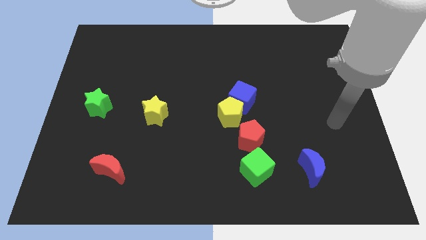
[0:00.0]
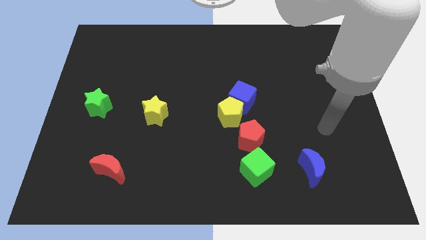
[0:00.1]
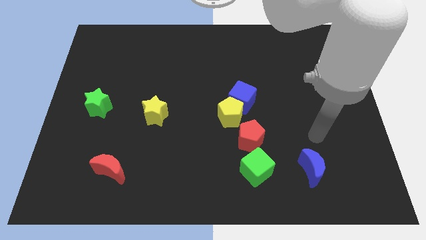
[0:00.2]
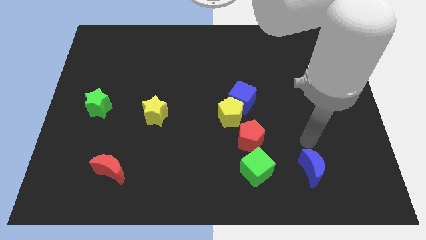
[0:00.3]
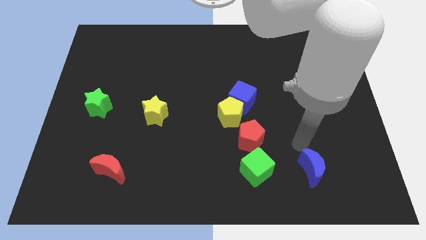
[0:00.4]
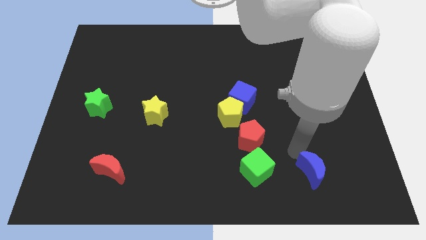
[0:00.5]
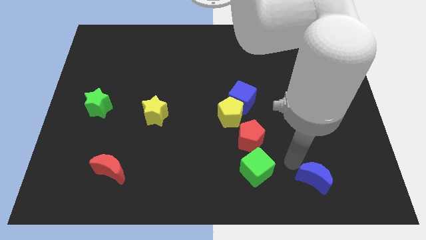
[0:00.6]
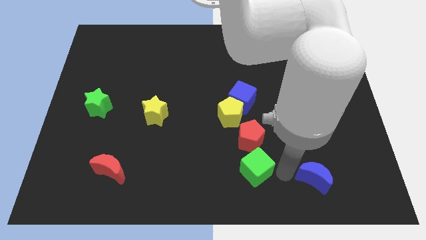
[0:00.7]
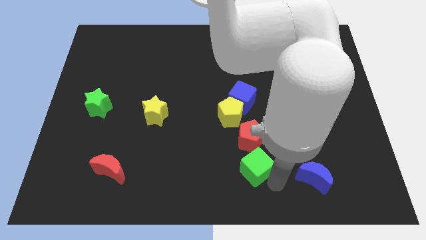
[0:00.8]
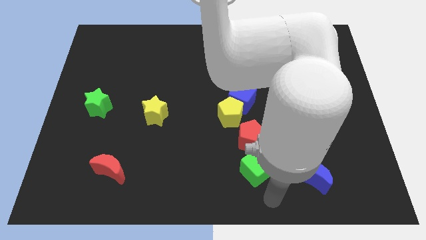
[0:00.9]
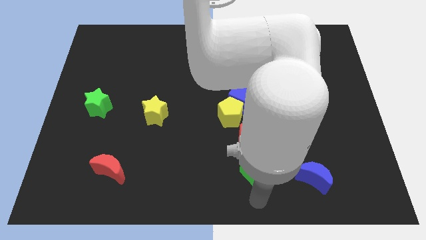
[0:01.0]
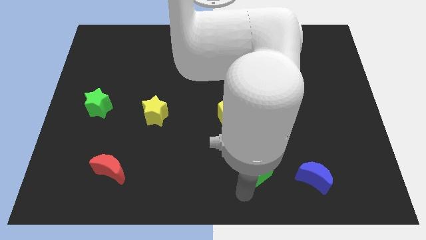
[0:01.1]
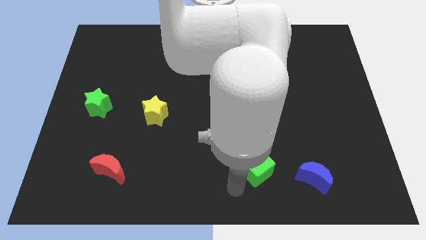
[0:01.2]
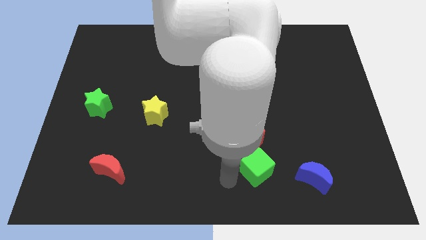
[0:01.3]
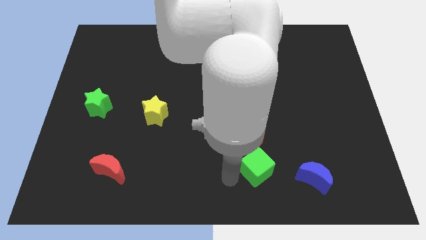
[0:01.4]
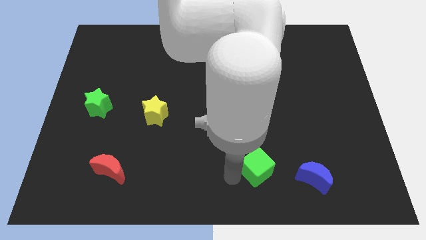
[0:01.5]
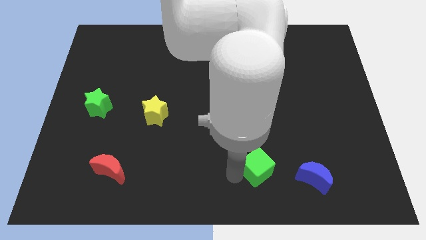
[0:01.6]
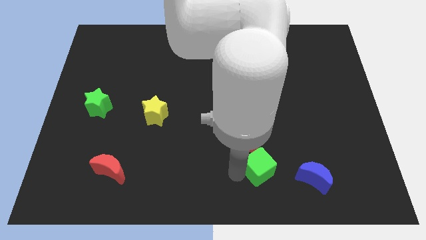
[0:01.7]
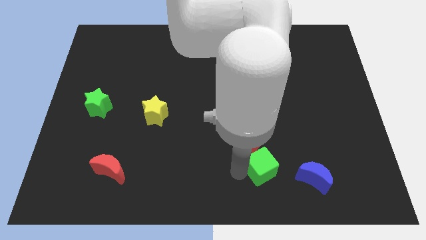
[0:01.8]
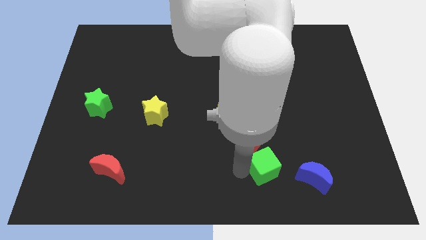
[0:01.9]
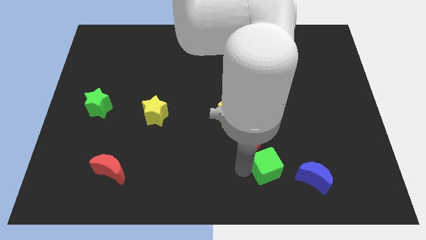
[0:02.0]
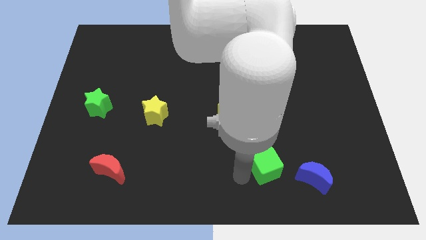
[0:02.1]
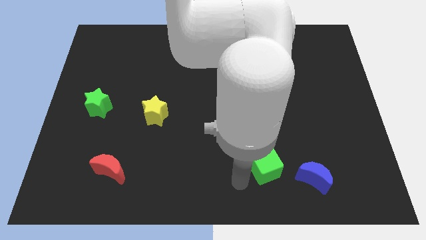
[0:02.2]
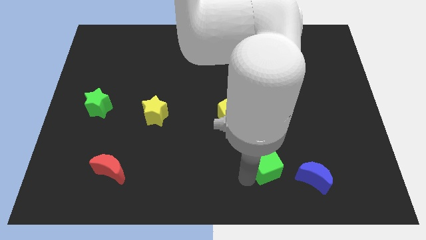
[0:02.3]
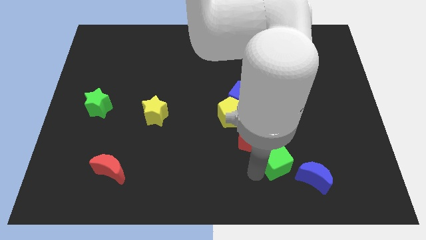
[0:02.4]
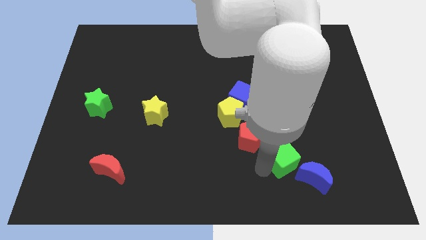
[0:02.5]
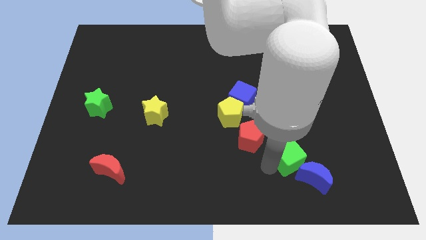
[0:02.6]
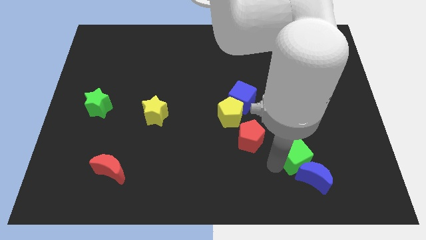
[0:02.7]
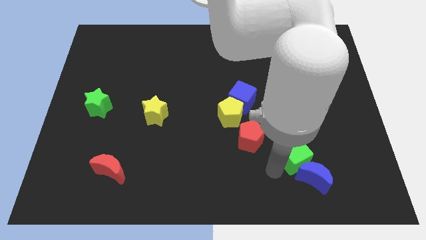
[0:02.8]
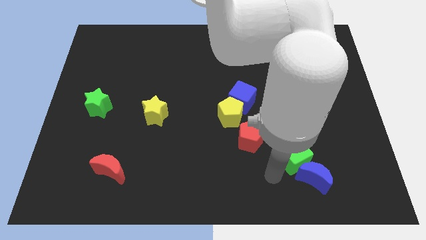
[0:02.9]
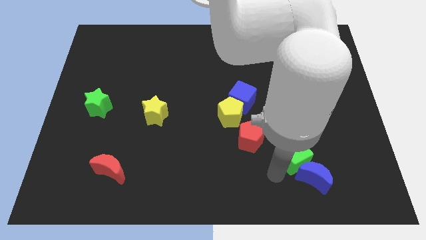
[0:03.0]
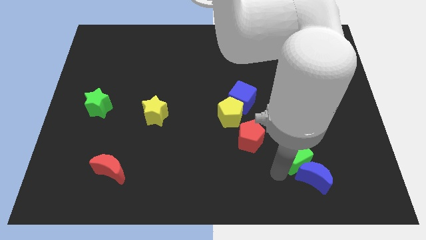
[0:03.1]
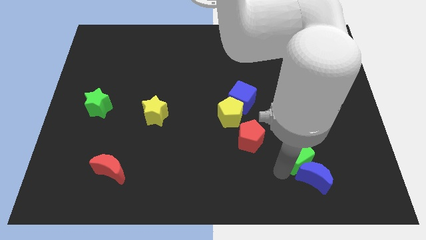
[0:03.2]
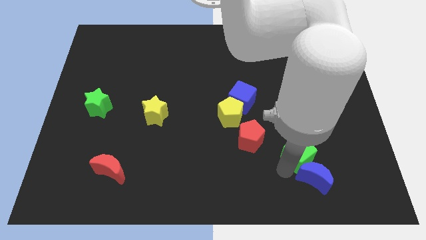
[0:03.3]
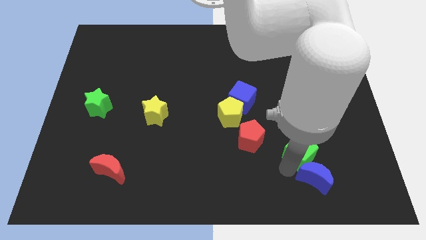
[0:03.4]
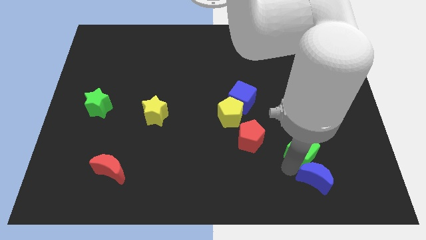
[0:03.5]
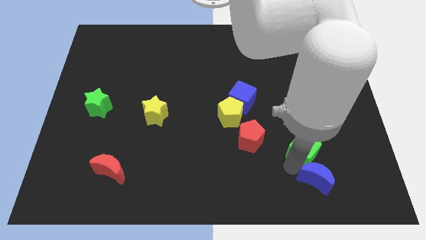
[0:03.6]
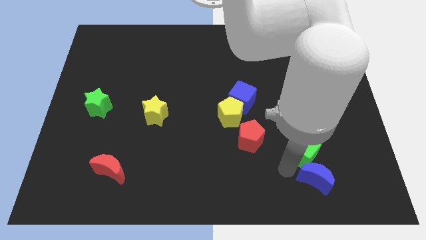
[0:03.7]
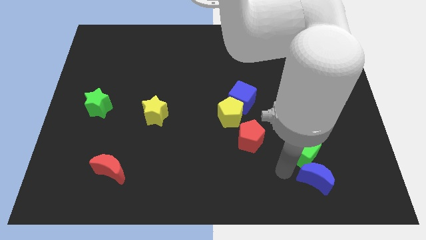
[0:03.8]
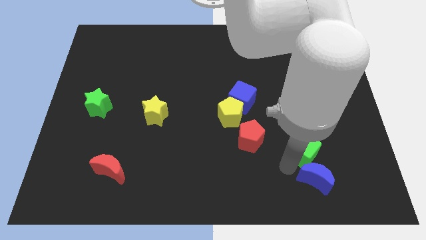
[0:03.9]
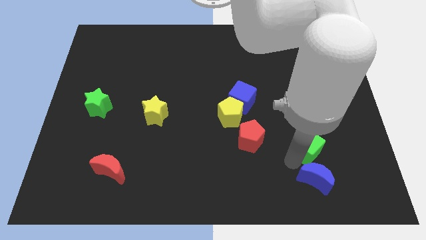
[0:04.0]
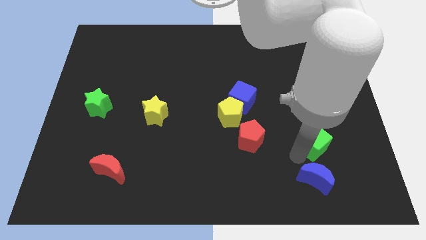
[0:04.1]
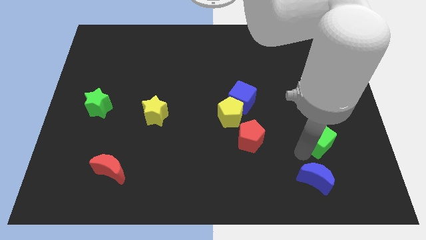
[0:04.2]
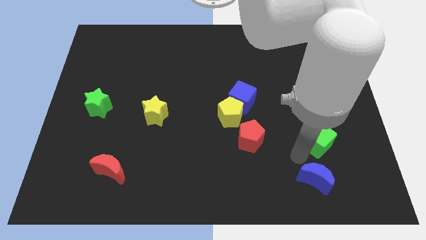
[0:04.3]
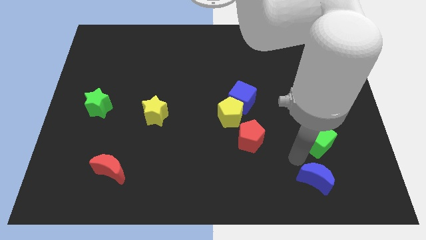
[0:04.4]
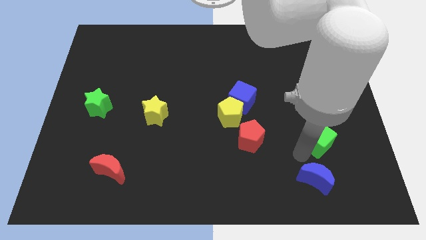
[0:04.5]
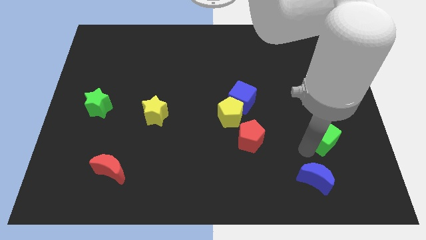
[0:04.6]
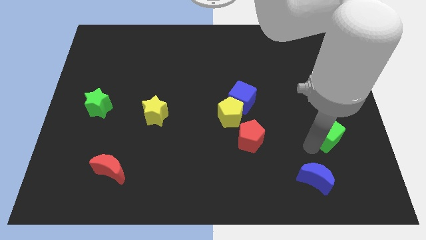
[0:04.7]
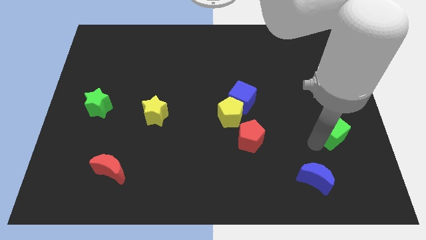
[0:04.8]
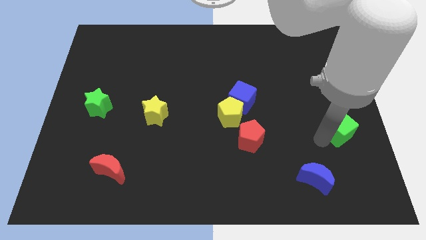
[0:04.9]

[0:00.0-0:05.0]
slide the green cube to the right side

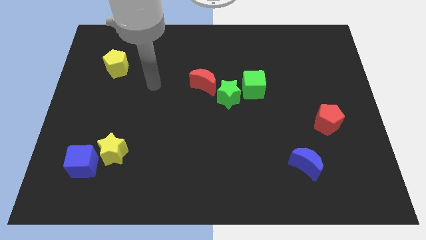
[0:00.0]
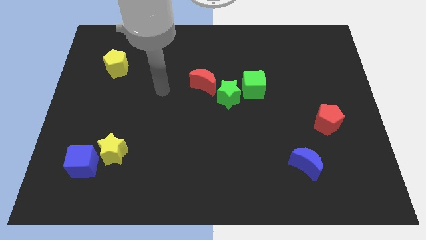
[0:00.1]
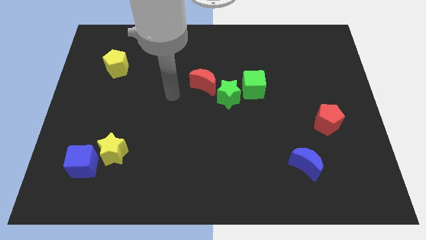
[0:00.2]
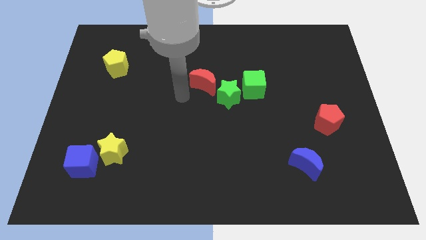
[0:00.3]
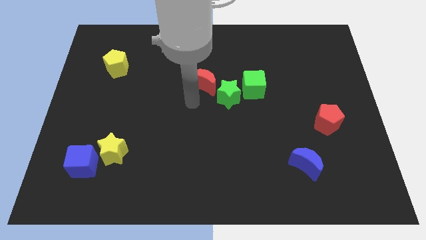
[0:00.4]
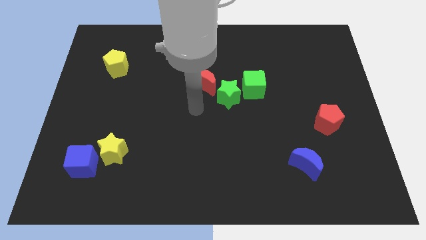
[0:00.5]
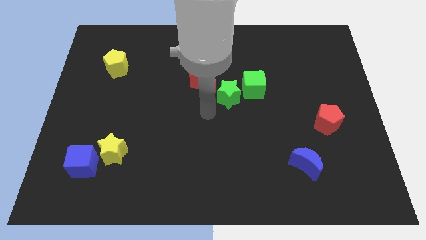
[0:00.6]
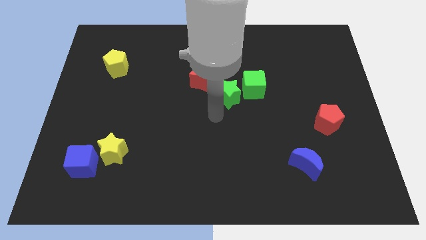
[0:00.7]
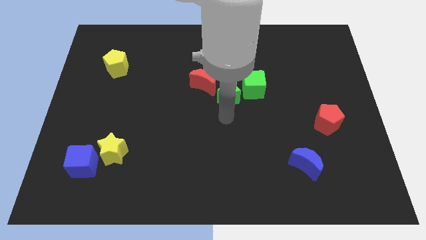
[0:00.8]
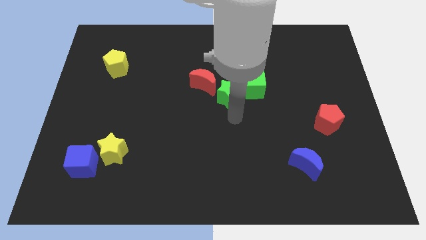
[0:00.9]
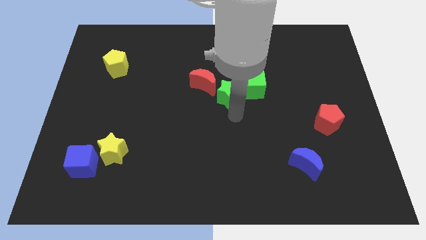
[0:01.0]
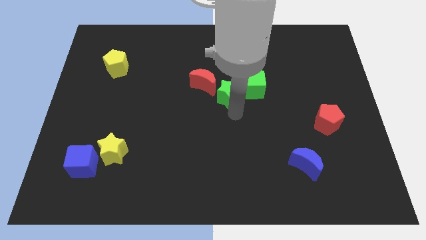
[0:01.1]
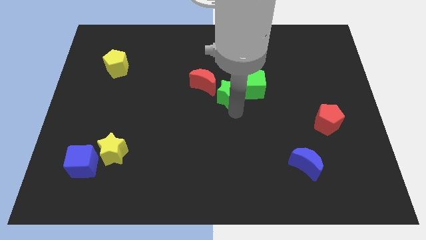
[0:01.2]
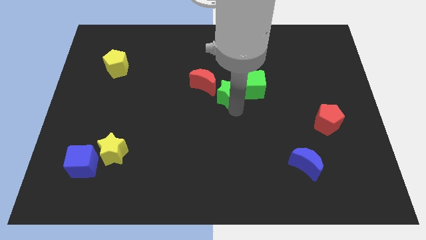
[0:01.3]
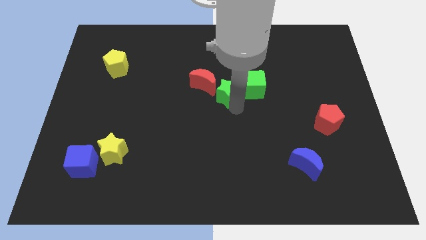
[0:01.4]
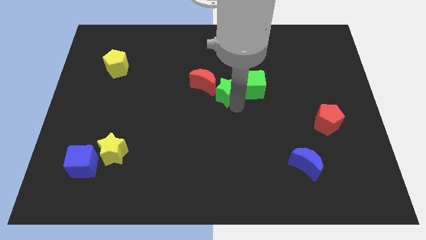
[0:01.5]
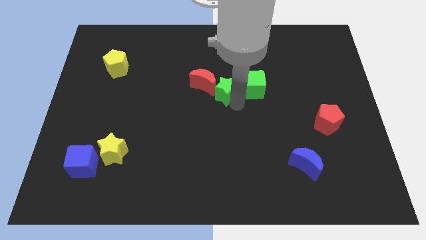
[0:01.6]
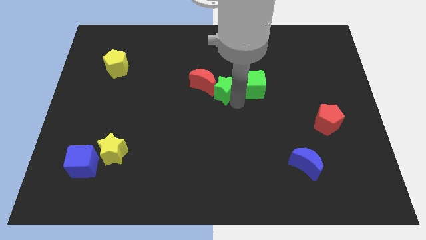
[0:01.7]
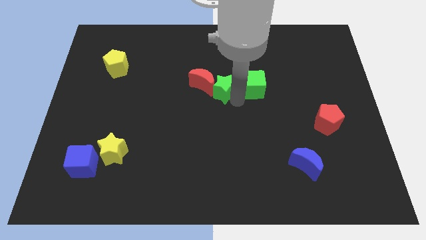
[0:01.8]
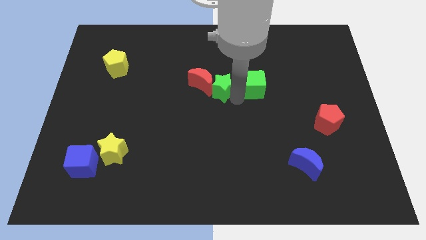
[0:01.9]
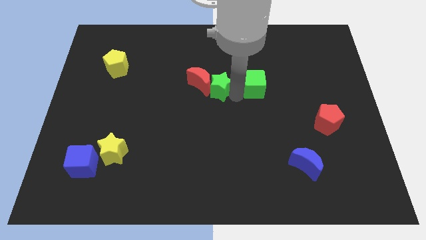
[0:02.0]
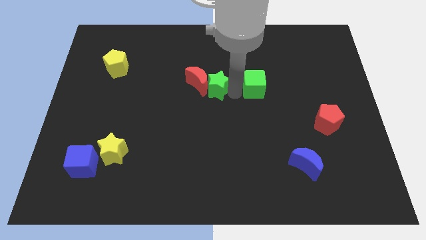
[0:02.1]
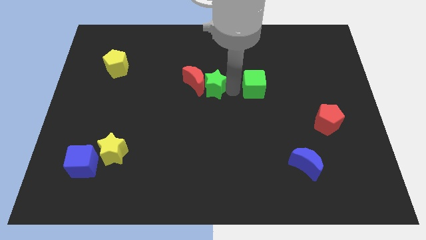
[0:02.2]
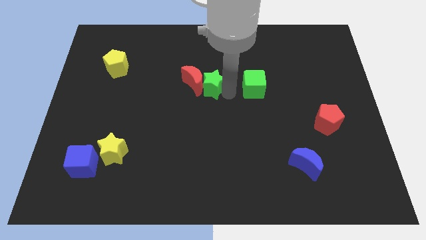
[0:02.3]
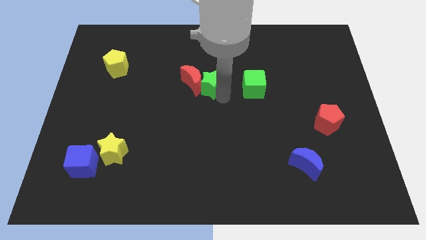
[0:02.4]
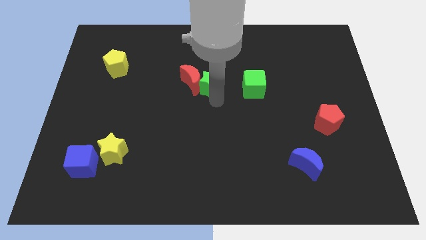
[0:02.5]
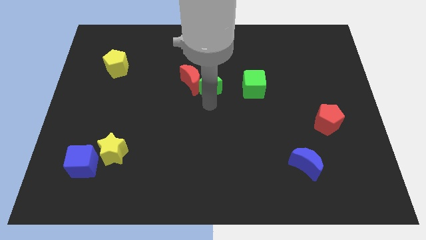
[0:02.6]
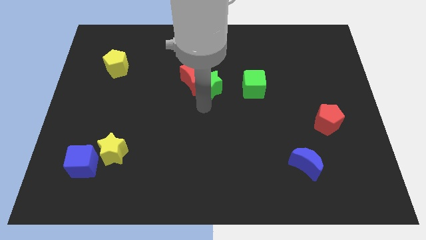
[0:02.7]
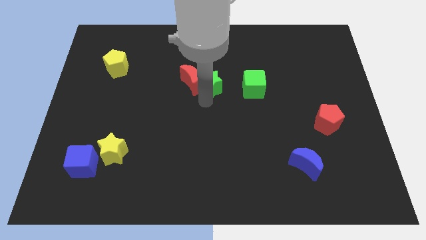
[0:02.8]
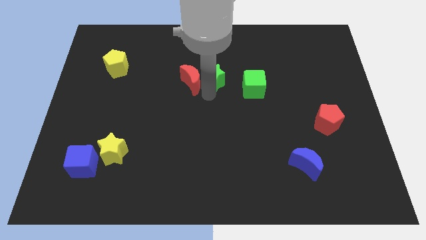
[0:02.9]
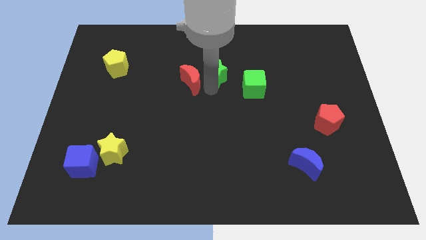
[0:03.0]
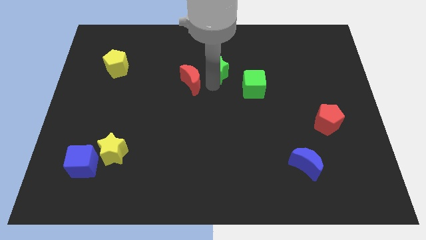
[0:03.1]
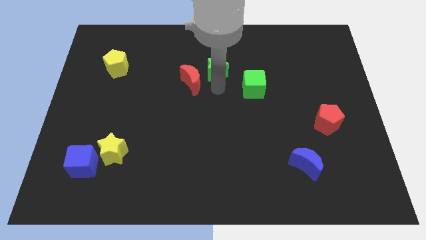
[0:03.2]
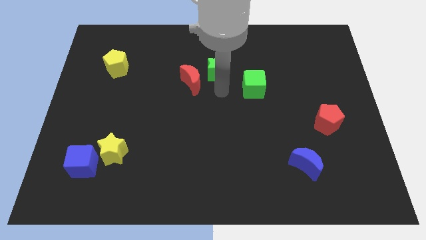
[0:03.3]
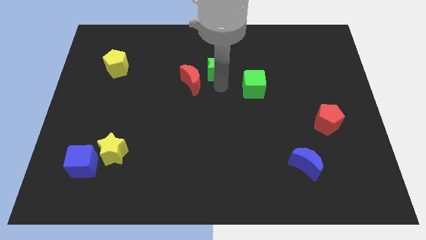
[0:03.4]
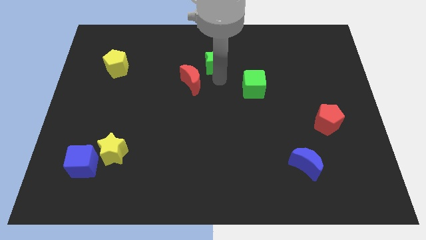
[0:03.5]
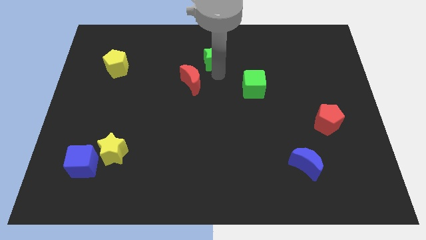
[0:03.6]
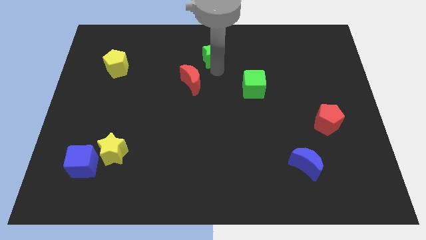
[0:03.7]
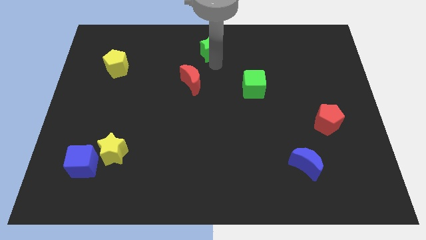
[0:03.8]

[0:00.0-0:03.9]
move the green star to the top side
